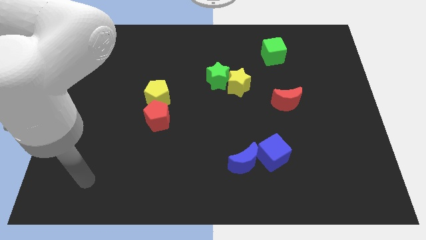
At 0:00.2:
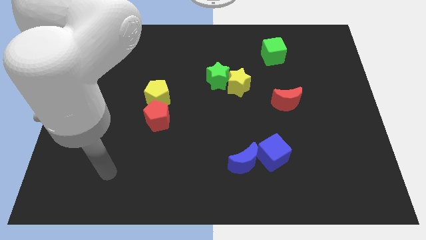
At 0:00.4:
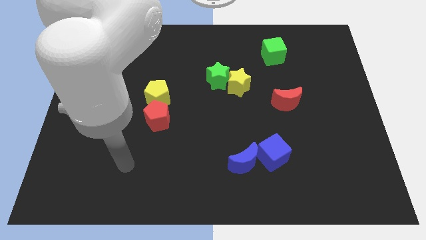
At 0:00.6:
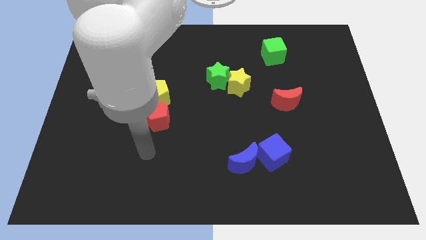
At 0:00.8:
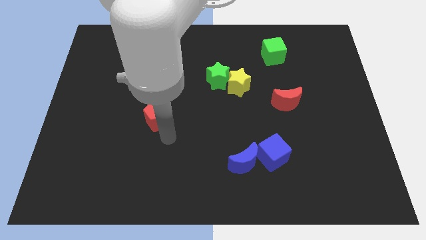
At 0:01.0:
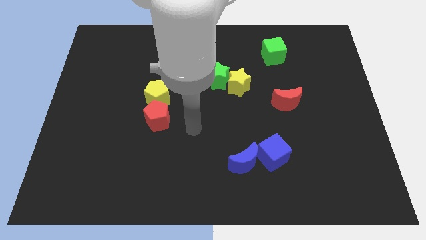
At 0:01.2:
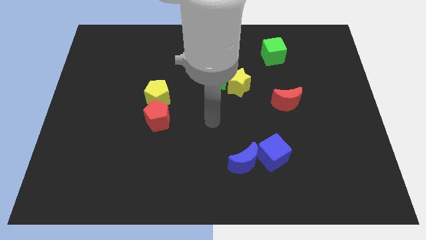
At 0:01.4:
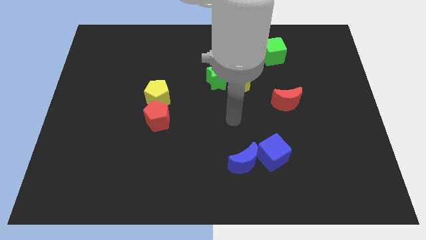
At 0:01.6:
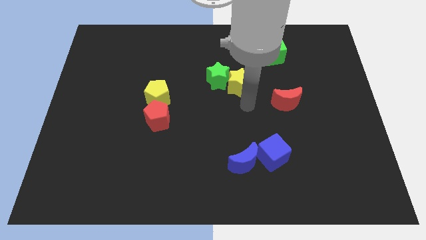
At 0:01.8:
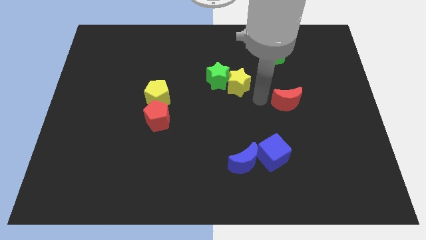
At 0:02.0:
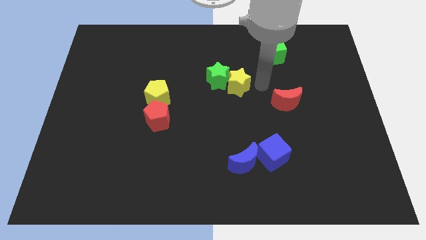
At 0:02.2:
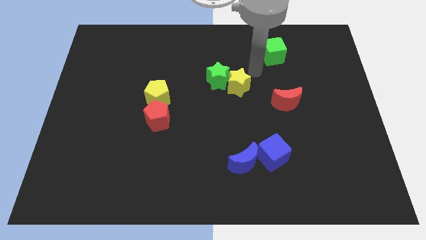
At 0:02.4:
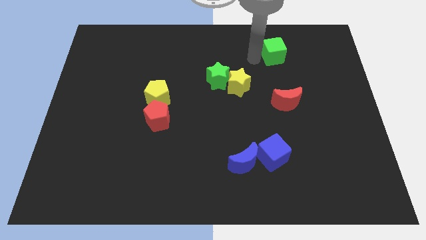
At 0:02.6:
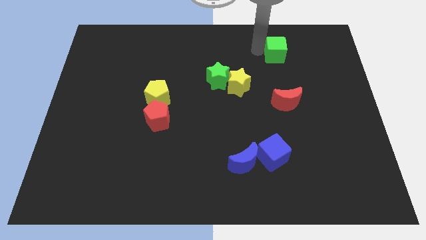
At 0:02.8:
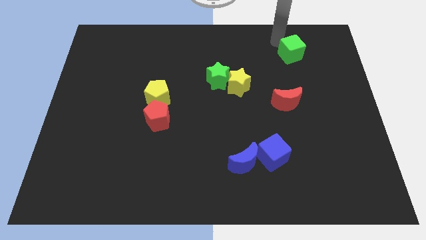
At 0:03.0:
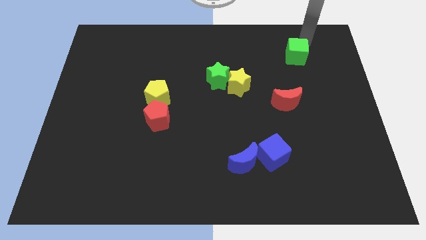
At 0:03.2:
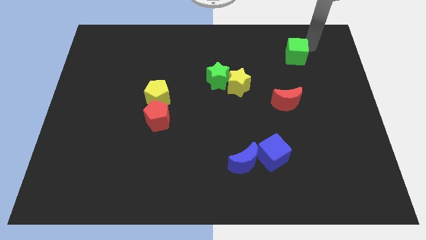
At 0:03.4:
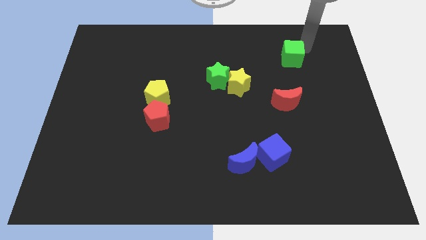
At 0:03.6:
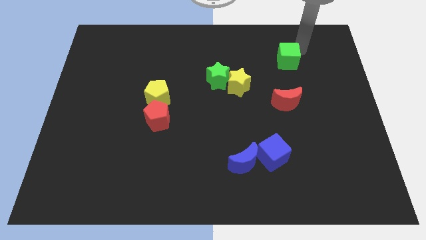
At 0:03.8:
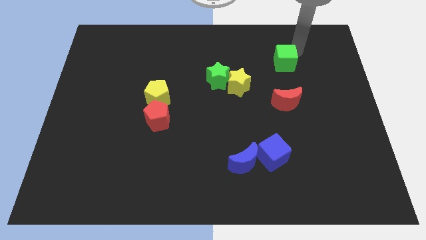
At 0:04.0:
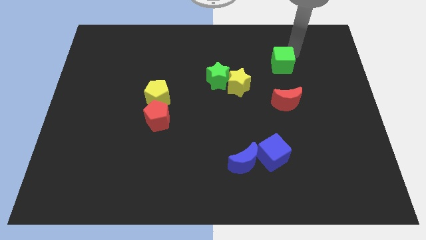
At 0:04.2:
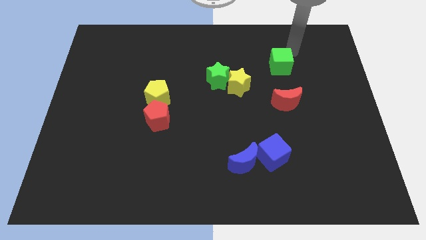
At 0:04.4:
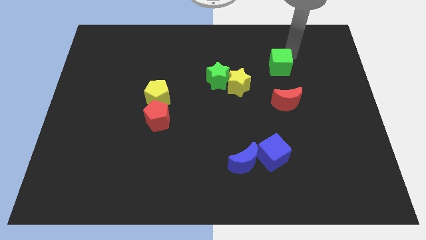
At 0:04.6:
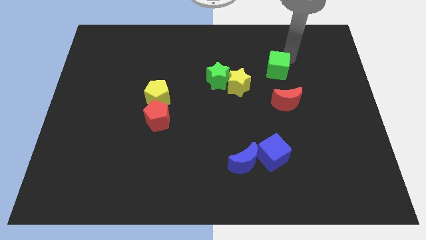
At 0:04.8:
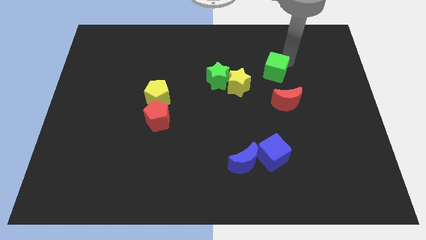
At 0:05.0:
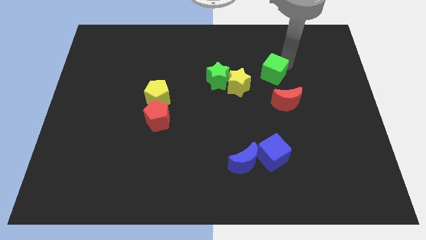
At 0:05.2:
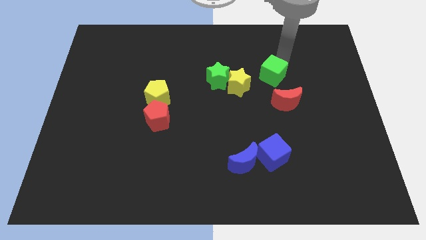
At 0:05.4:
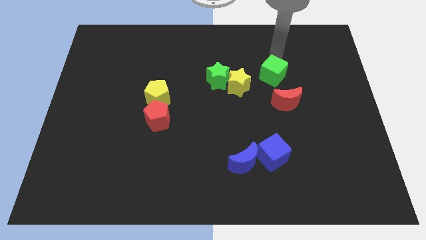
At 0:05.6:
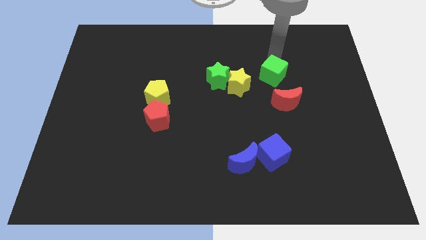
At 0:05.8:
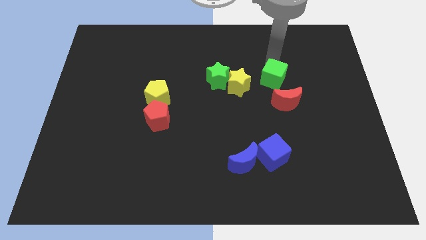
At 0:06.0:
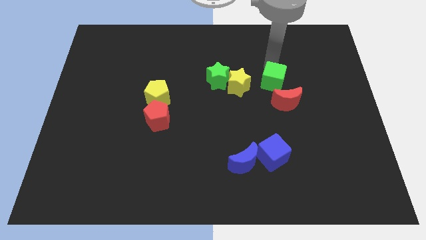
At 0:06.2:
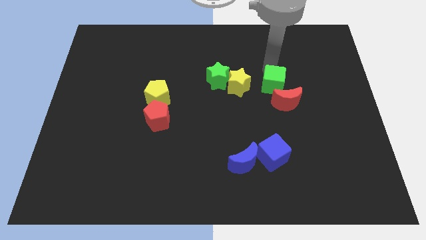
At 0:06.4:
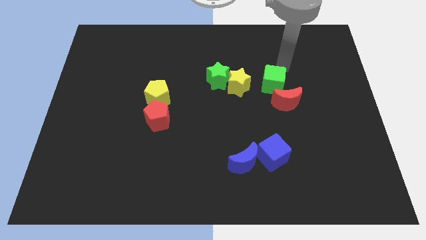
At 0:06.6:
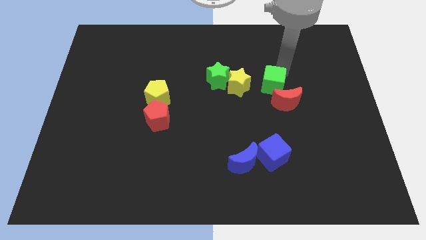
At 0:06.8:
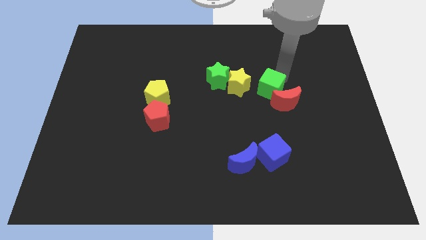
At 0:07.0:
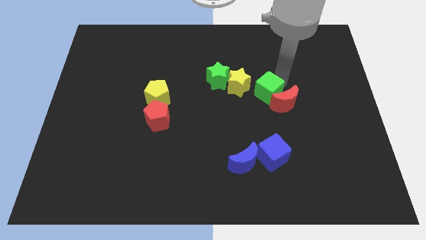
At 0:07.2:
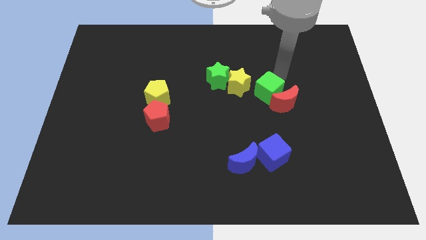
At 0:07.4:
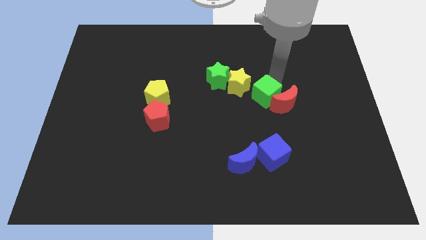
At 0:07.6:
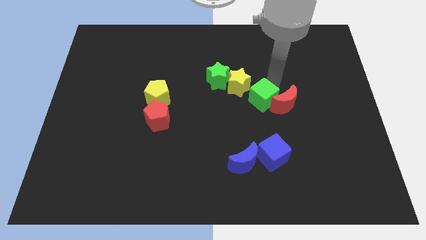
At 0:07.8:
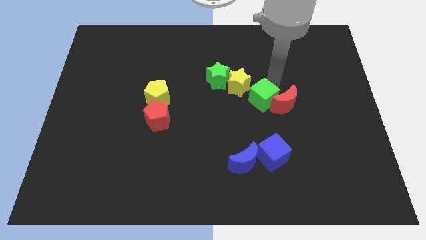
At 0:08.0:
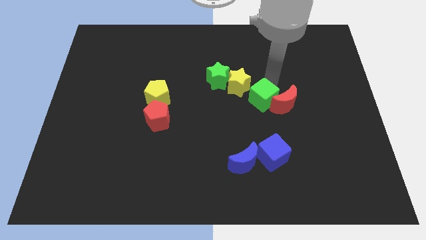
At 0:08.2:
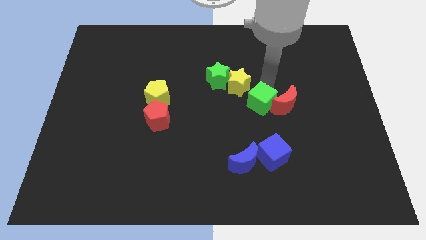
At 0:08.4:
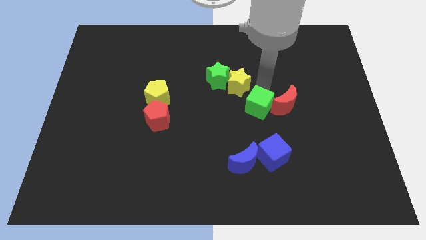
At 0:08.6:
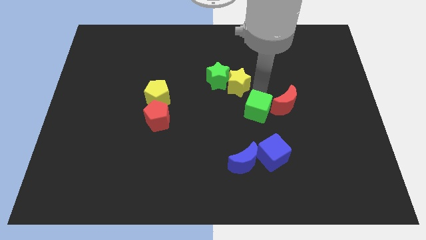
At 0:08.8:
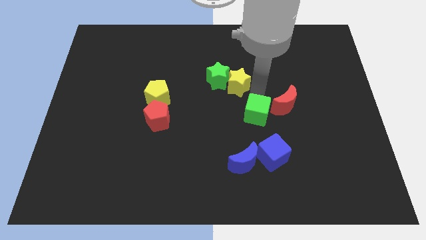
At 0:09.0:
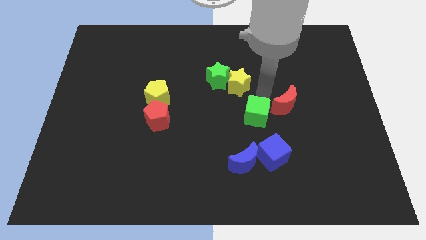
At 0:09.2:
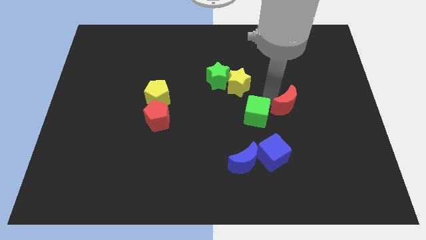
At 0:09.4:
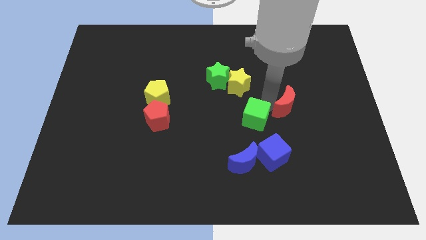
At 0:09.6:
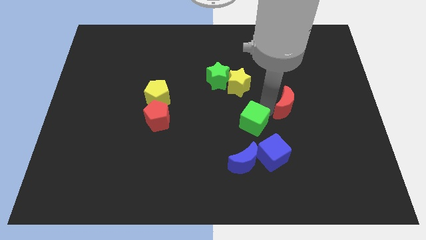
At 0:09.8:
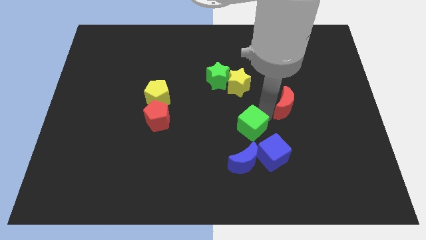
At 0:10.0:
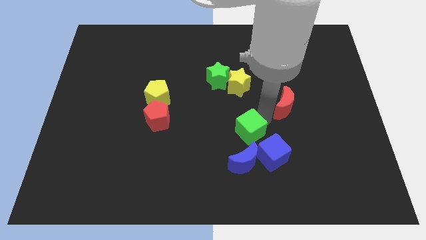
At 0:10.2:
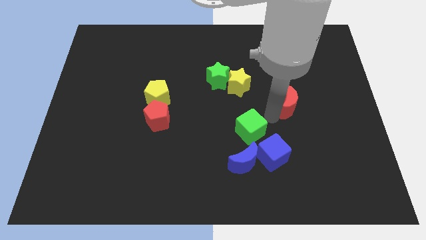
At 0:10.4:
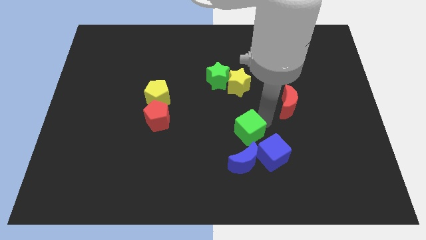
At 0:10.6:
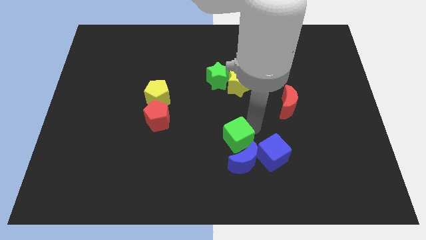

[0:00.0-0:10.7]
slide the green cube to the left of the blue cube

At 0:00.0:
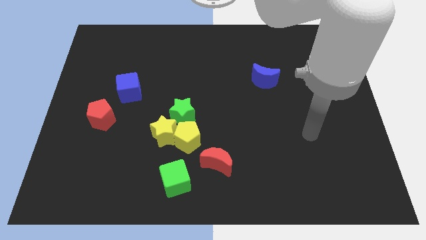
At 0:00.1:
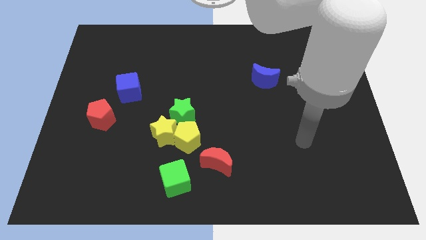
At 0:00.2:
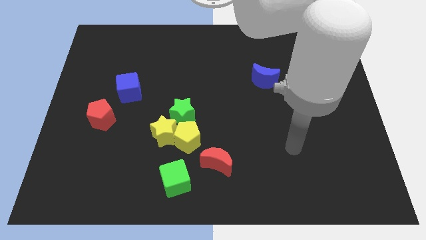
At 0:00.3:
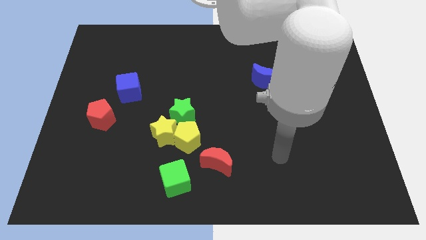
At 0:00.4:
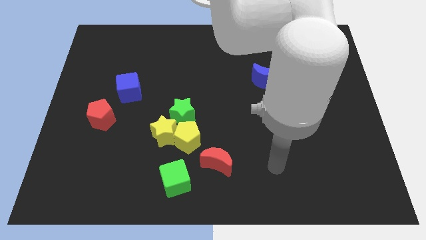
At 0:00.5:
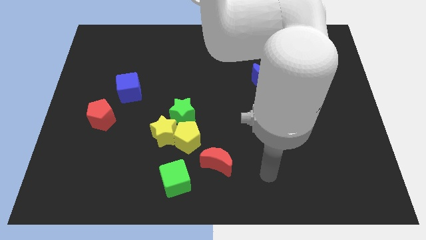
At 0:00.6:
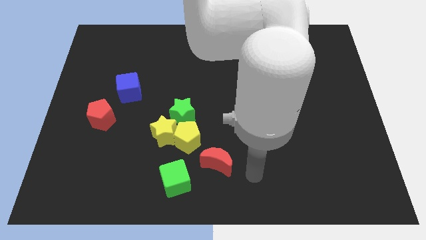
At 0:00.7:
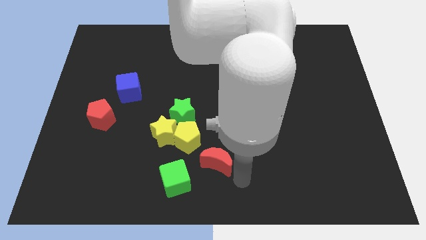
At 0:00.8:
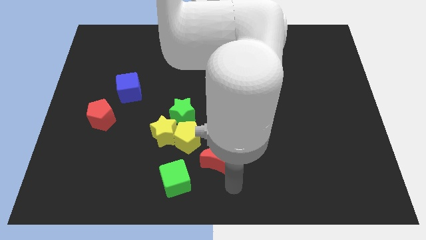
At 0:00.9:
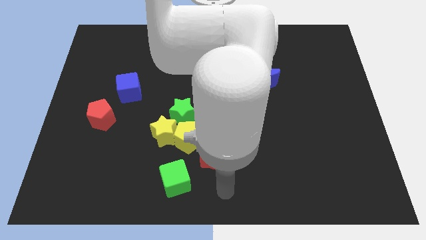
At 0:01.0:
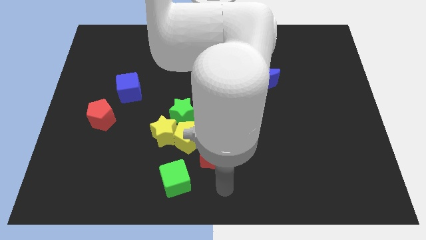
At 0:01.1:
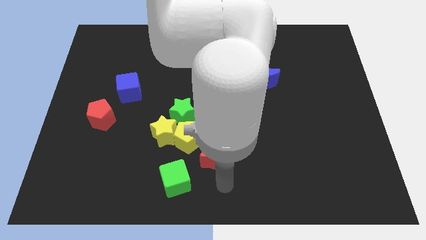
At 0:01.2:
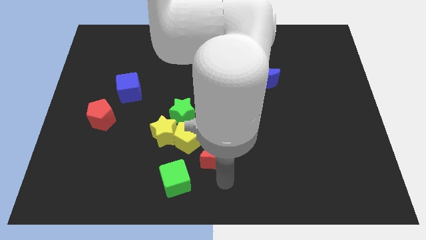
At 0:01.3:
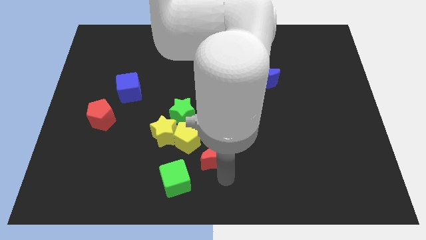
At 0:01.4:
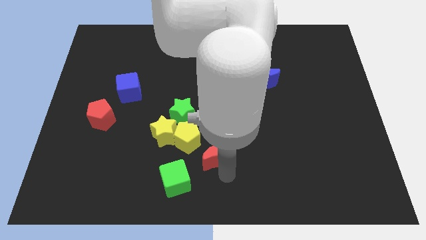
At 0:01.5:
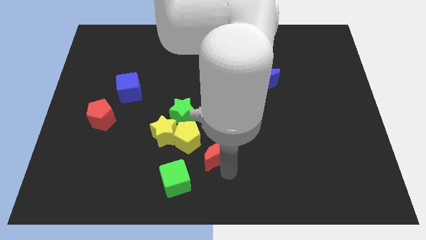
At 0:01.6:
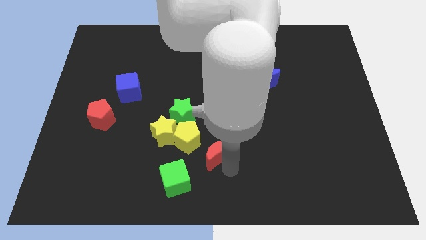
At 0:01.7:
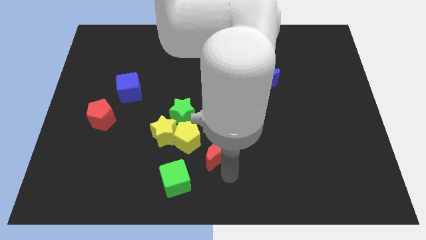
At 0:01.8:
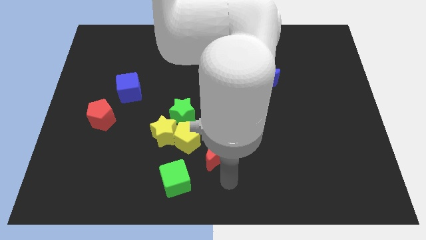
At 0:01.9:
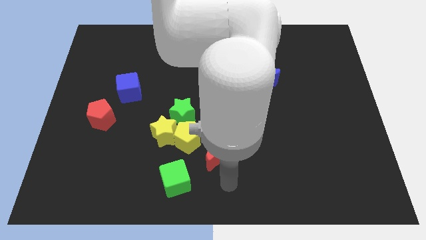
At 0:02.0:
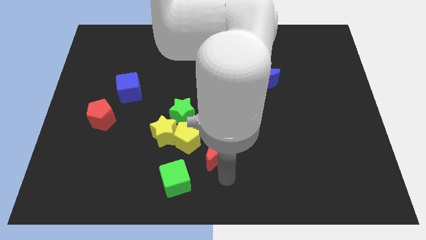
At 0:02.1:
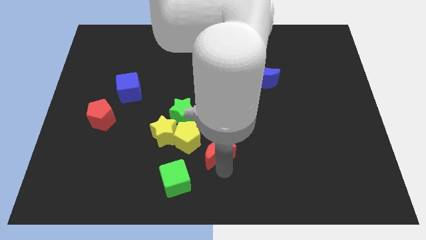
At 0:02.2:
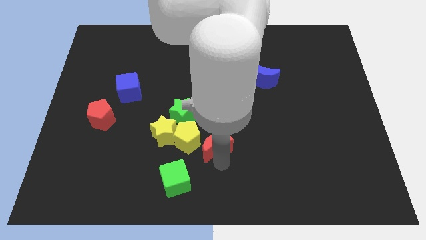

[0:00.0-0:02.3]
slide the red moon just right of the yellow star
